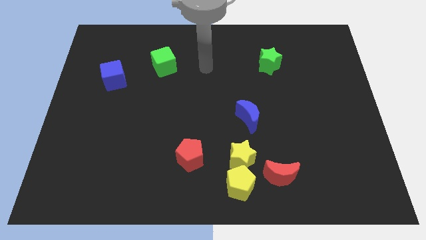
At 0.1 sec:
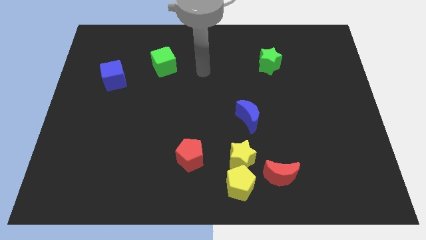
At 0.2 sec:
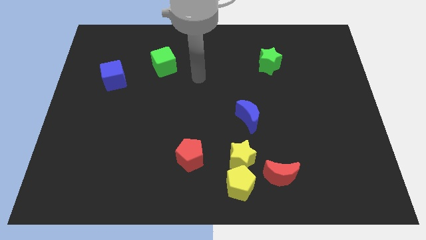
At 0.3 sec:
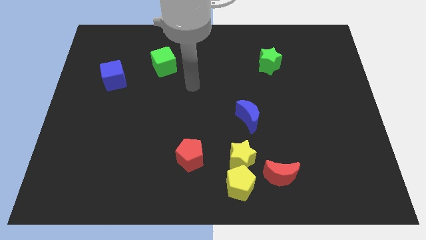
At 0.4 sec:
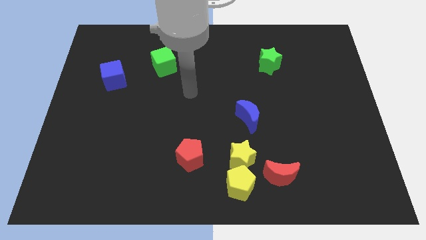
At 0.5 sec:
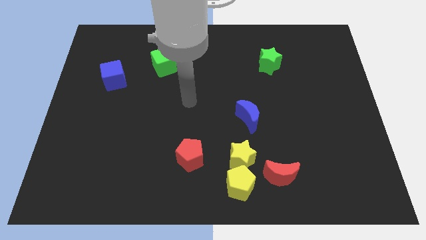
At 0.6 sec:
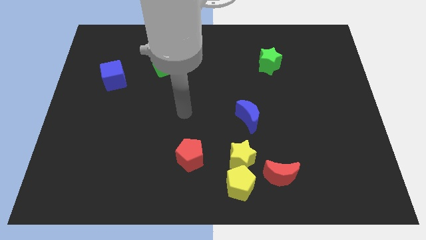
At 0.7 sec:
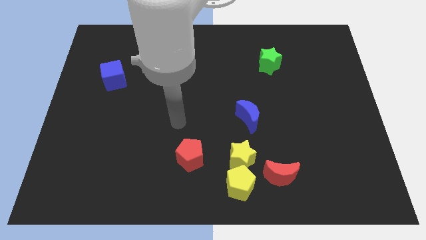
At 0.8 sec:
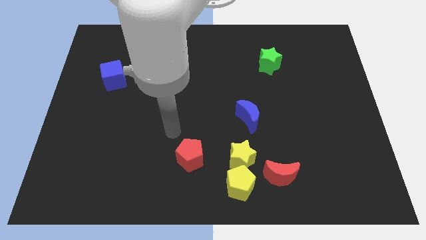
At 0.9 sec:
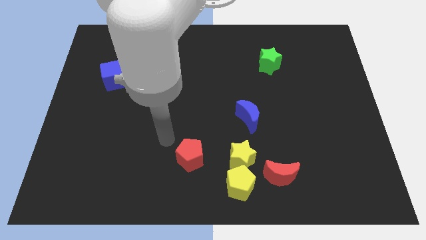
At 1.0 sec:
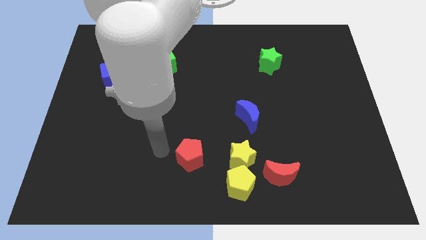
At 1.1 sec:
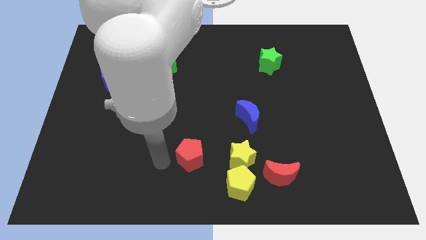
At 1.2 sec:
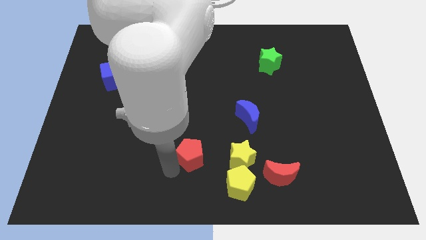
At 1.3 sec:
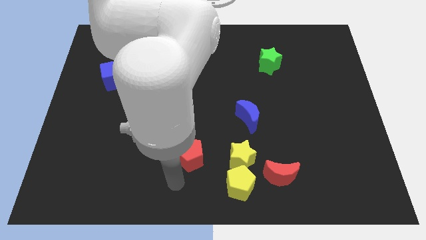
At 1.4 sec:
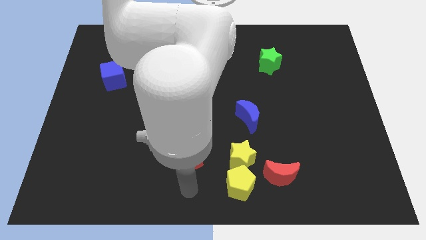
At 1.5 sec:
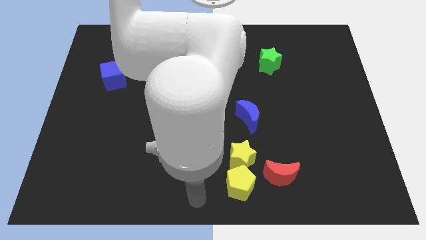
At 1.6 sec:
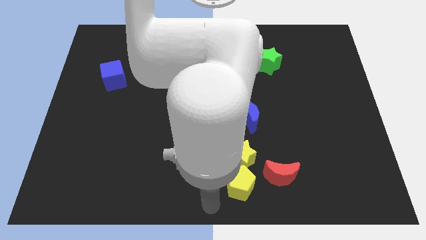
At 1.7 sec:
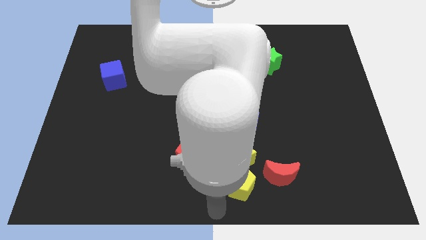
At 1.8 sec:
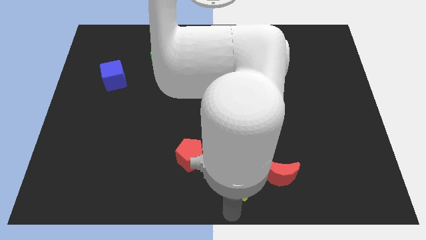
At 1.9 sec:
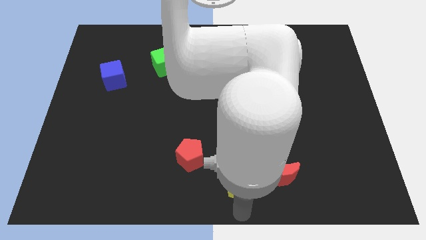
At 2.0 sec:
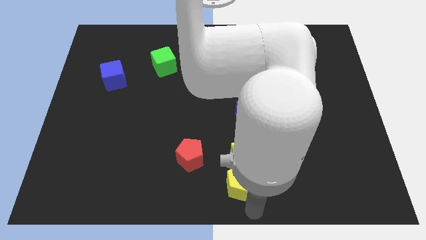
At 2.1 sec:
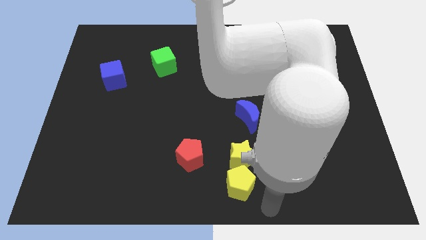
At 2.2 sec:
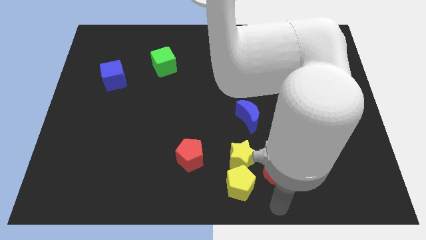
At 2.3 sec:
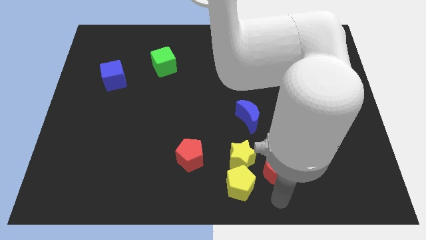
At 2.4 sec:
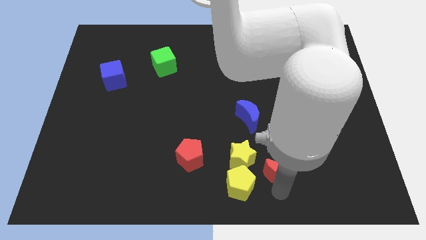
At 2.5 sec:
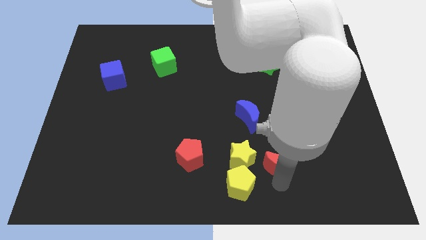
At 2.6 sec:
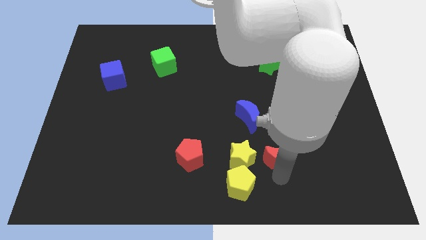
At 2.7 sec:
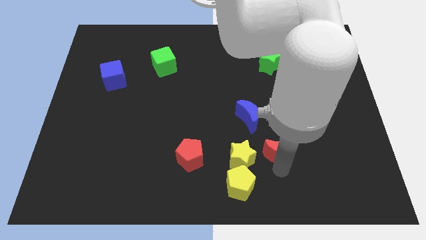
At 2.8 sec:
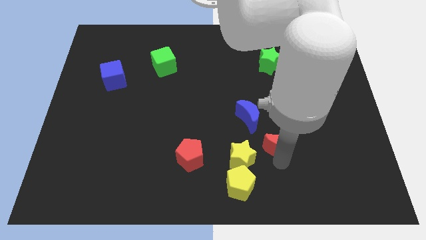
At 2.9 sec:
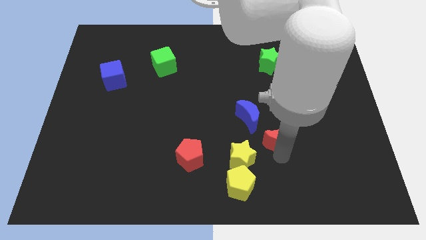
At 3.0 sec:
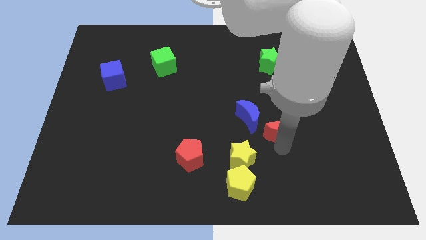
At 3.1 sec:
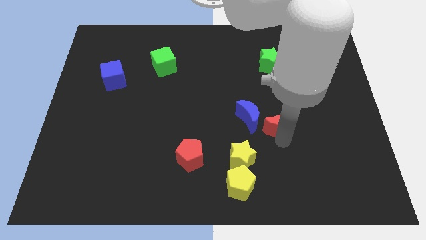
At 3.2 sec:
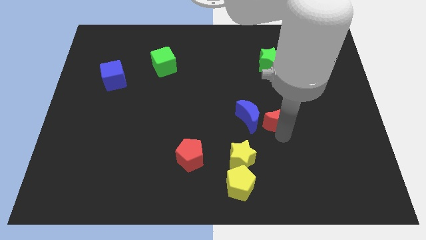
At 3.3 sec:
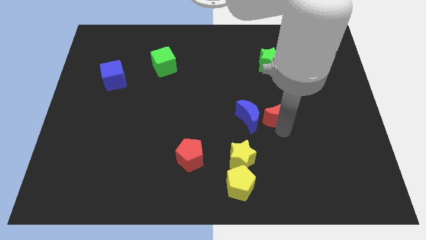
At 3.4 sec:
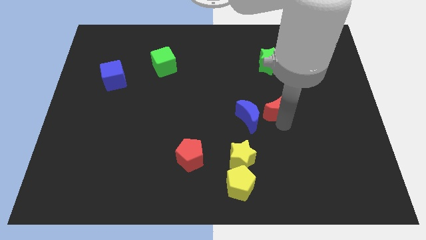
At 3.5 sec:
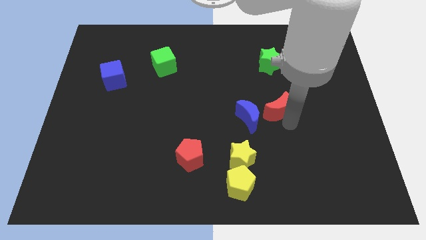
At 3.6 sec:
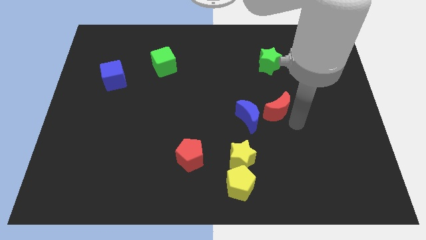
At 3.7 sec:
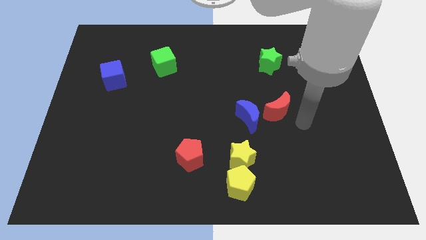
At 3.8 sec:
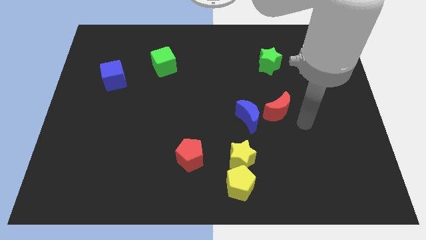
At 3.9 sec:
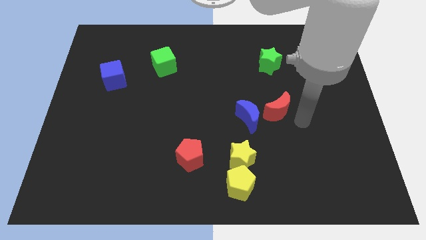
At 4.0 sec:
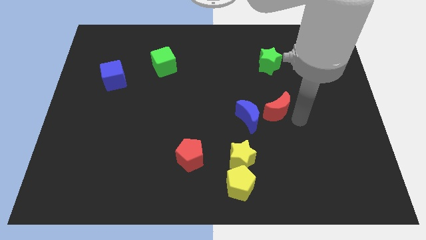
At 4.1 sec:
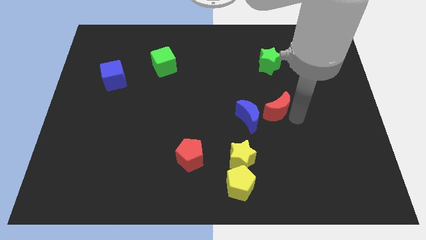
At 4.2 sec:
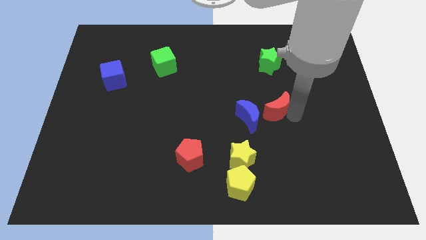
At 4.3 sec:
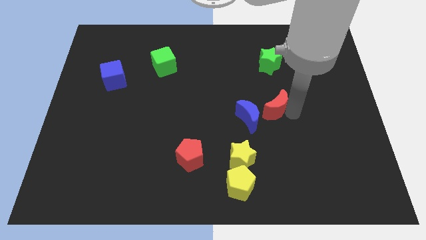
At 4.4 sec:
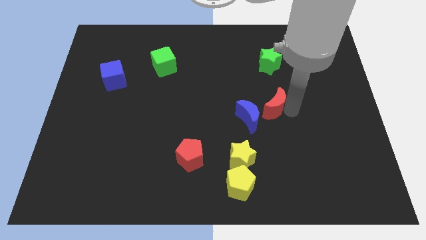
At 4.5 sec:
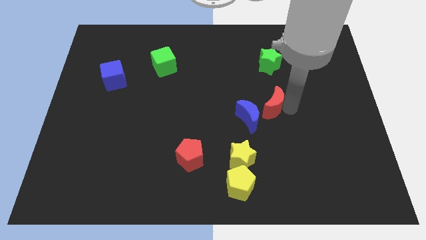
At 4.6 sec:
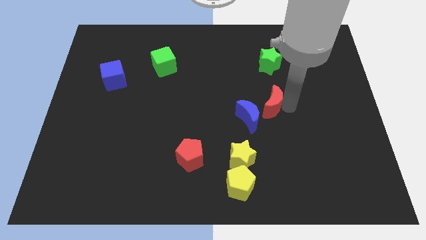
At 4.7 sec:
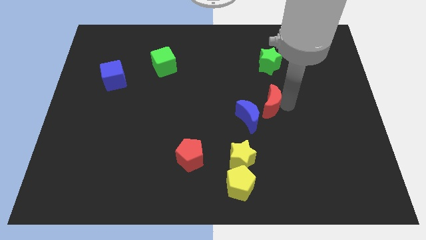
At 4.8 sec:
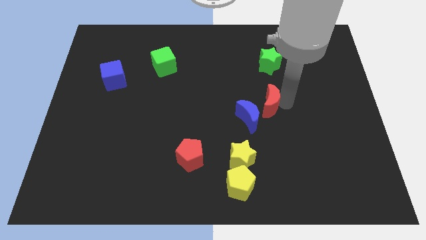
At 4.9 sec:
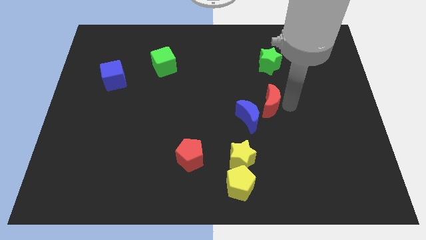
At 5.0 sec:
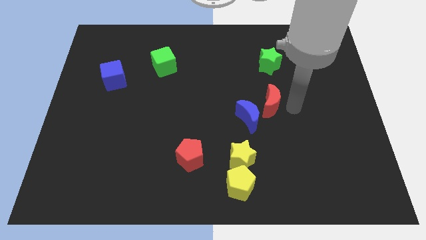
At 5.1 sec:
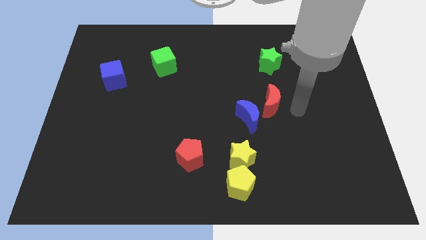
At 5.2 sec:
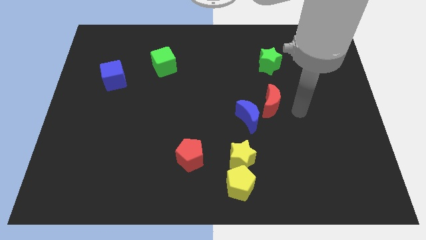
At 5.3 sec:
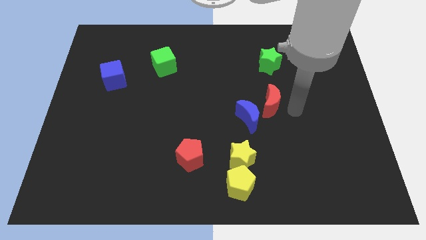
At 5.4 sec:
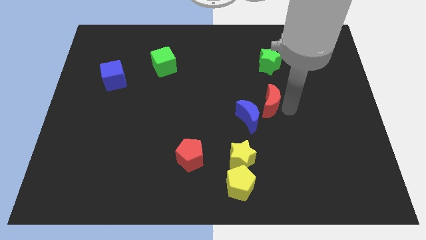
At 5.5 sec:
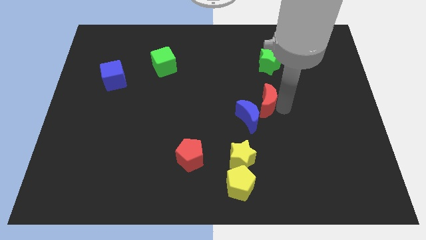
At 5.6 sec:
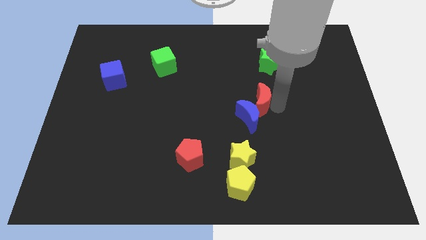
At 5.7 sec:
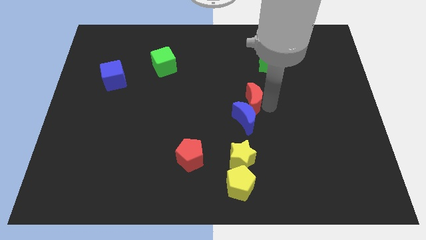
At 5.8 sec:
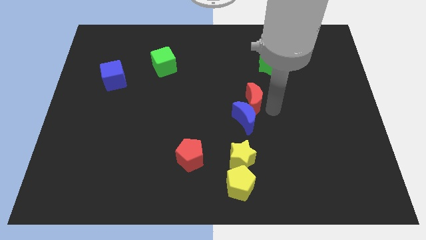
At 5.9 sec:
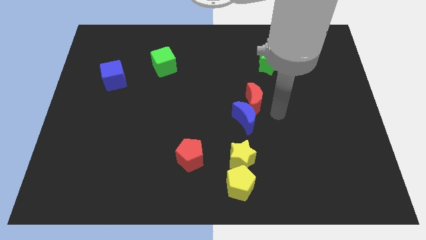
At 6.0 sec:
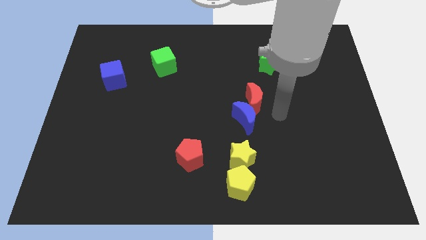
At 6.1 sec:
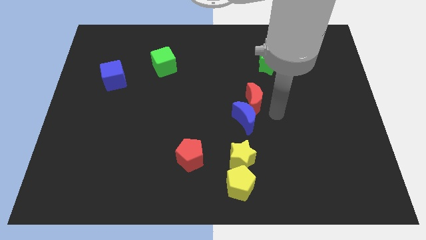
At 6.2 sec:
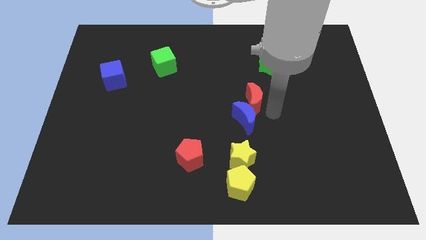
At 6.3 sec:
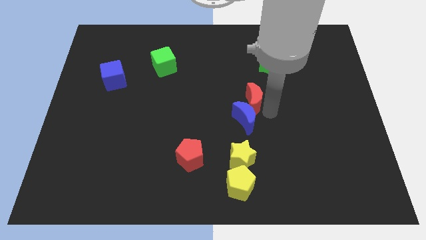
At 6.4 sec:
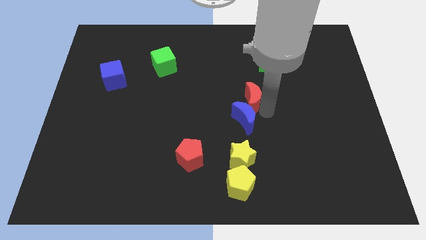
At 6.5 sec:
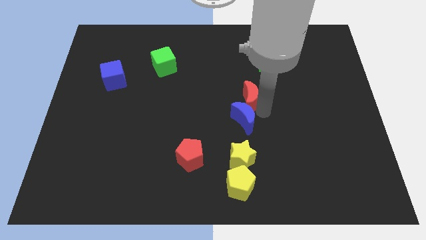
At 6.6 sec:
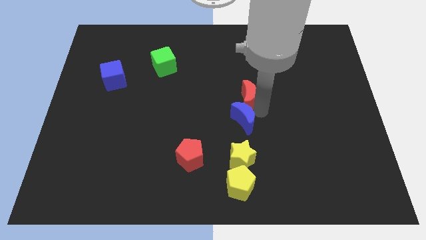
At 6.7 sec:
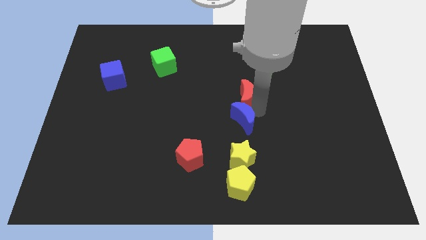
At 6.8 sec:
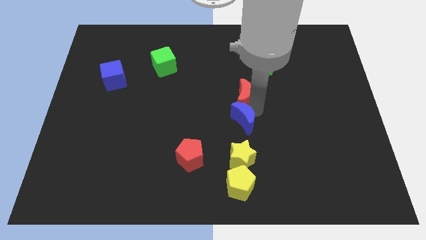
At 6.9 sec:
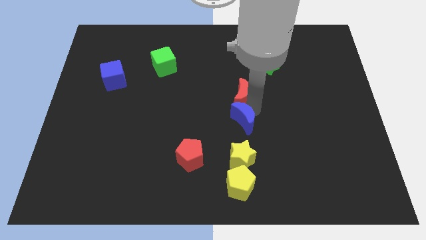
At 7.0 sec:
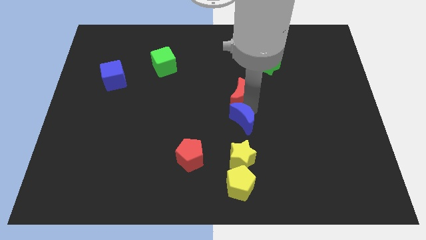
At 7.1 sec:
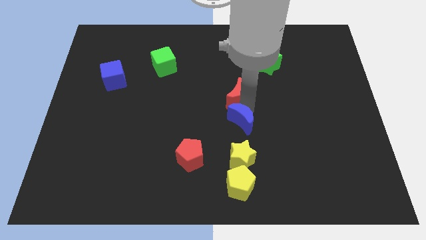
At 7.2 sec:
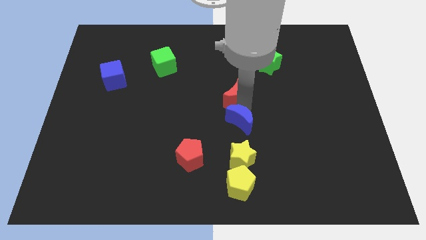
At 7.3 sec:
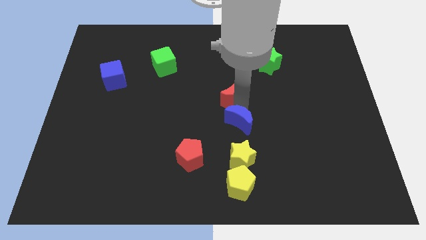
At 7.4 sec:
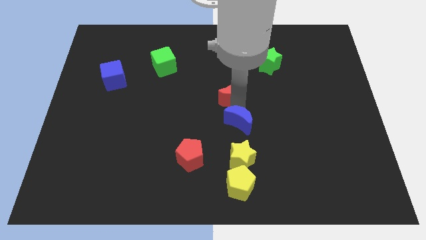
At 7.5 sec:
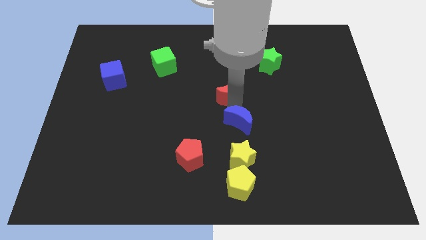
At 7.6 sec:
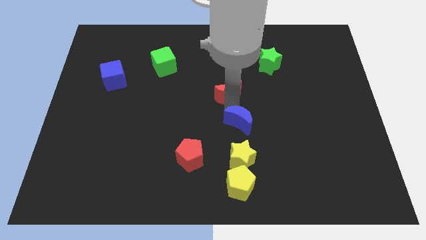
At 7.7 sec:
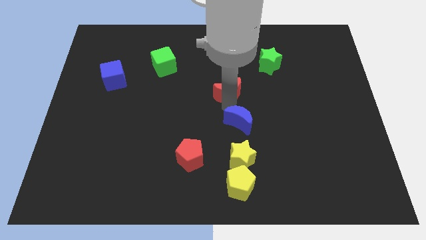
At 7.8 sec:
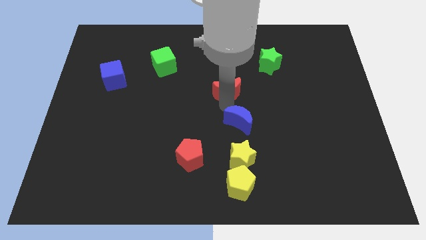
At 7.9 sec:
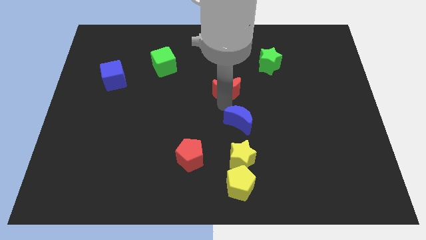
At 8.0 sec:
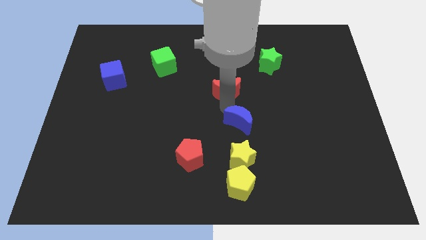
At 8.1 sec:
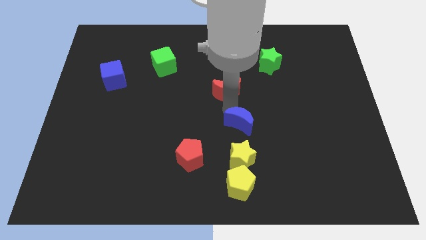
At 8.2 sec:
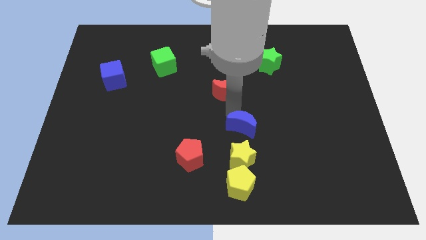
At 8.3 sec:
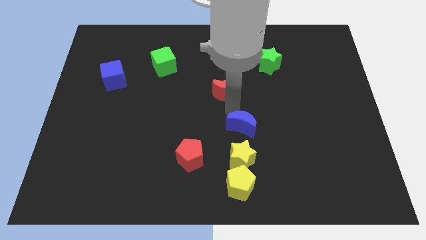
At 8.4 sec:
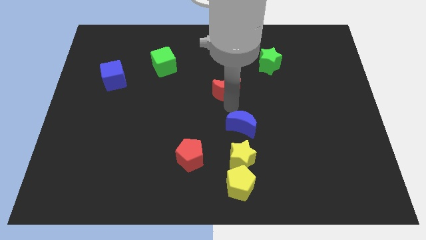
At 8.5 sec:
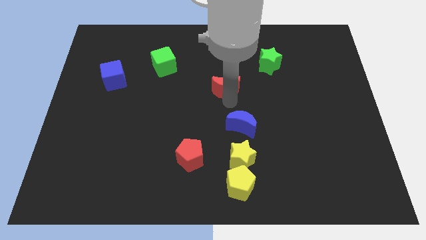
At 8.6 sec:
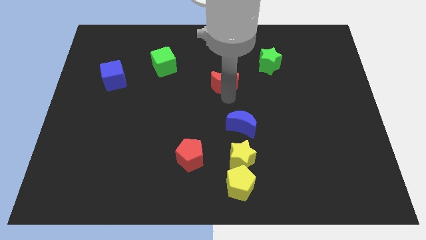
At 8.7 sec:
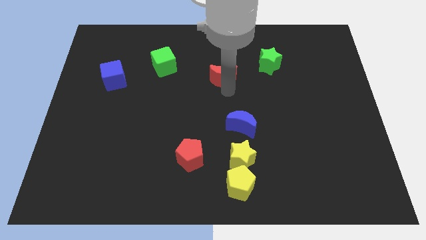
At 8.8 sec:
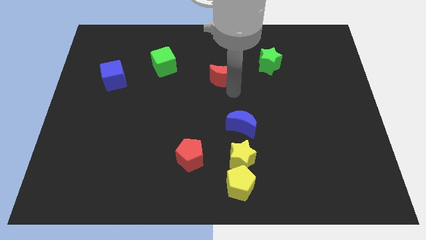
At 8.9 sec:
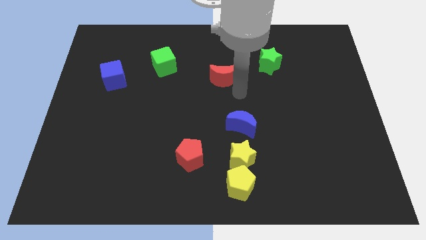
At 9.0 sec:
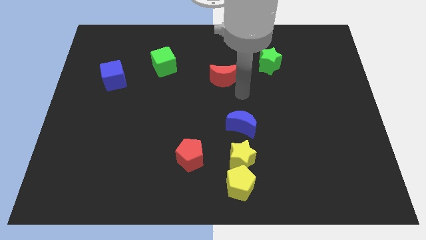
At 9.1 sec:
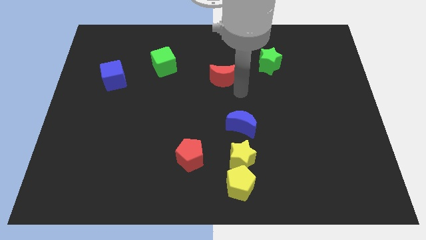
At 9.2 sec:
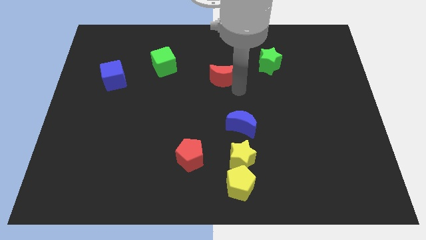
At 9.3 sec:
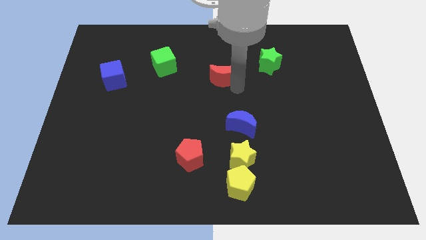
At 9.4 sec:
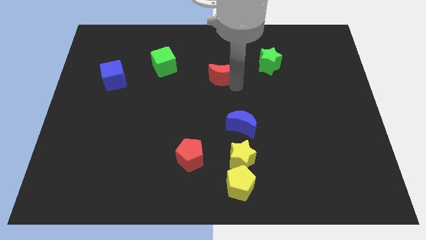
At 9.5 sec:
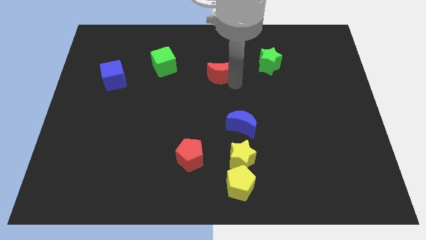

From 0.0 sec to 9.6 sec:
put the red moon to the right of the green cube
